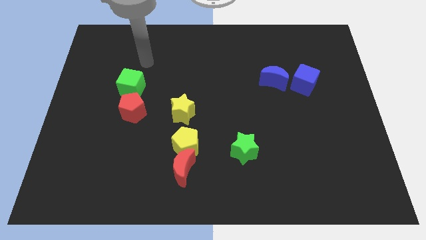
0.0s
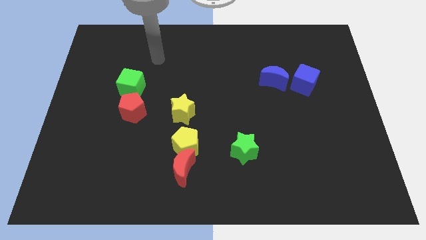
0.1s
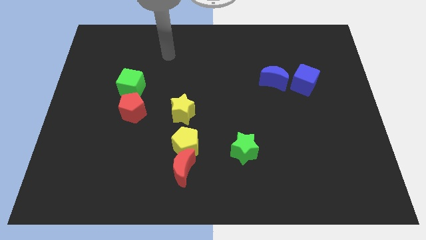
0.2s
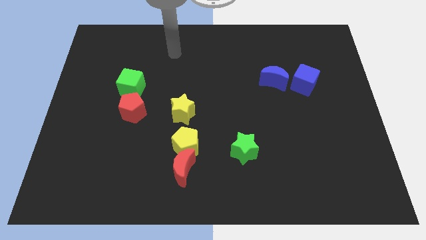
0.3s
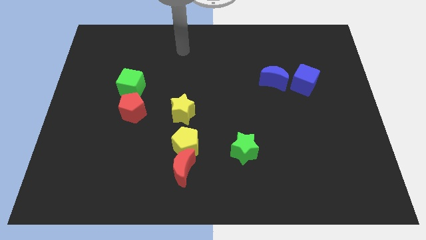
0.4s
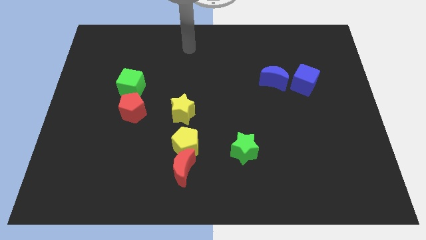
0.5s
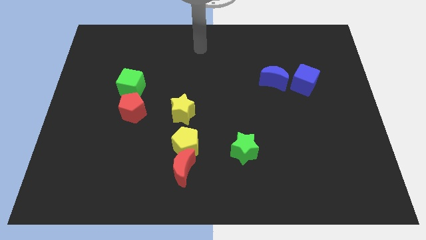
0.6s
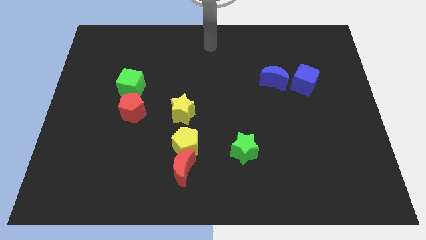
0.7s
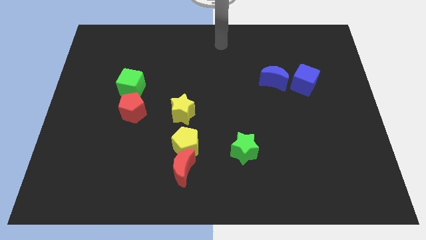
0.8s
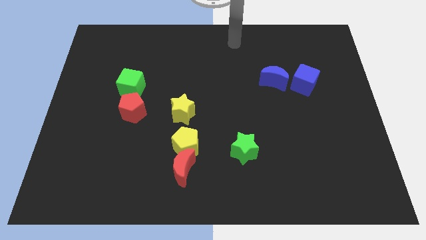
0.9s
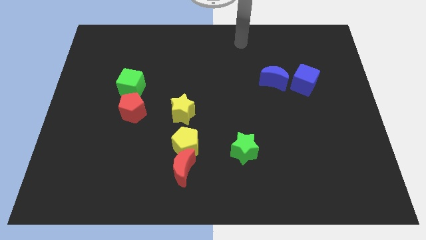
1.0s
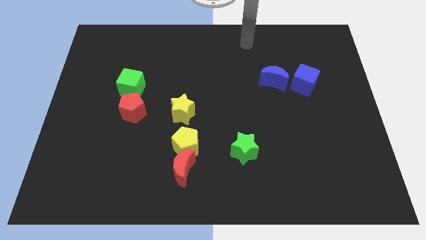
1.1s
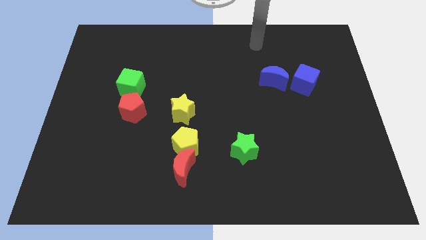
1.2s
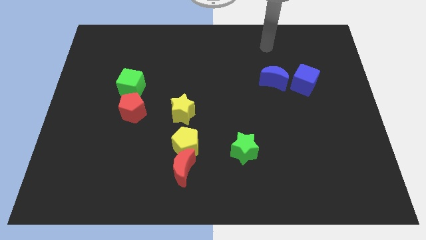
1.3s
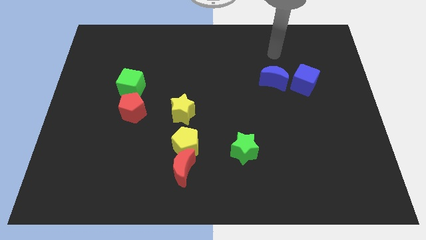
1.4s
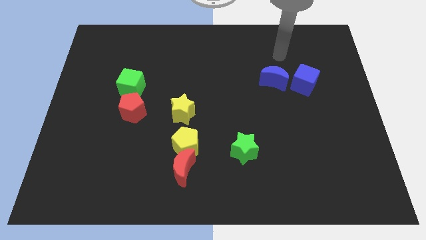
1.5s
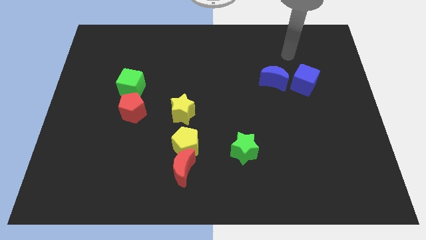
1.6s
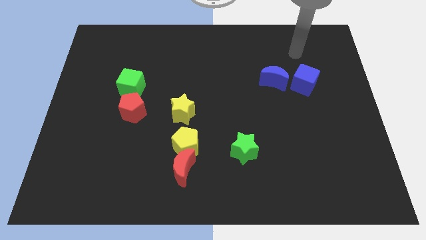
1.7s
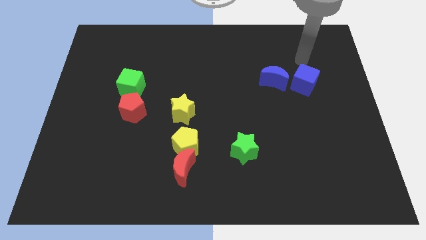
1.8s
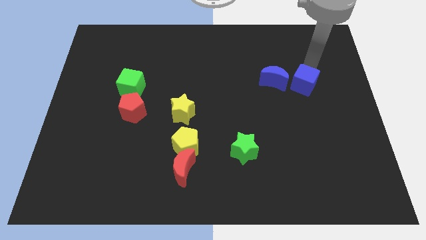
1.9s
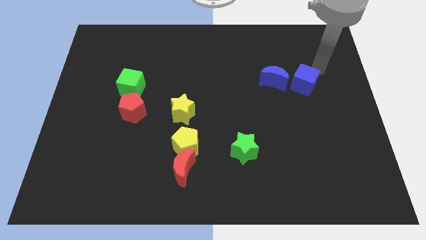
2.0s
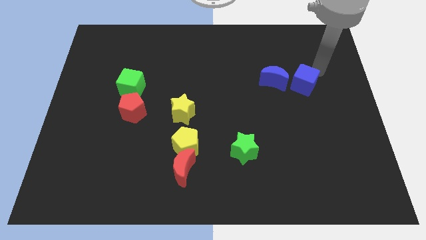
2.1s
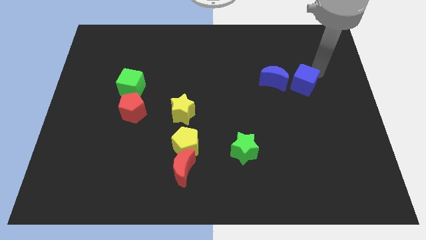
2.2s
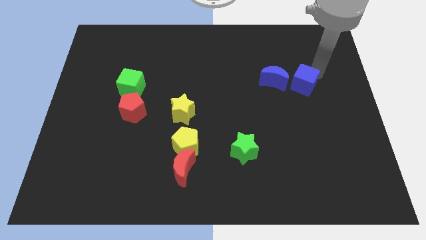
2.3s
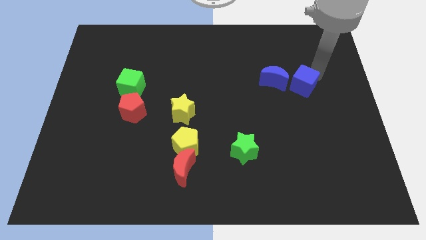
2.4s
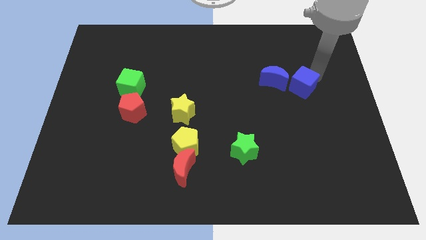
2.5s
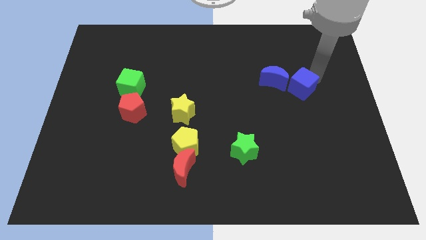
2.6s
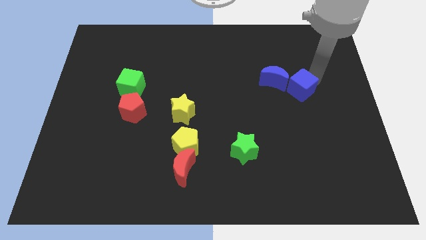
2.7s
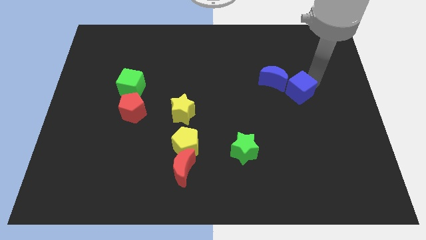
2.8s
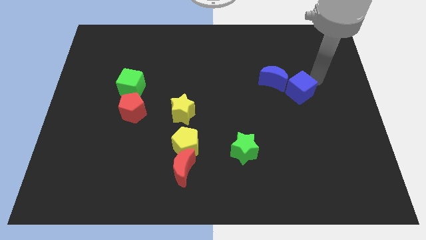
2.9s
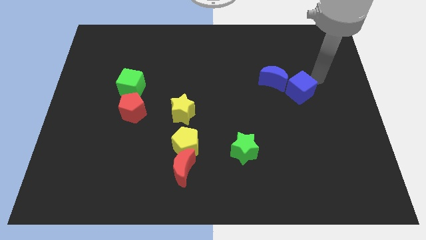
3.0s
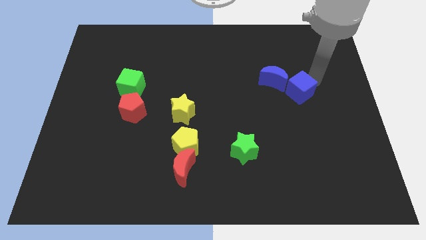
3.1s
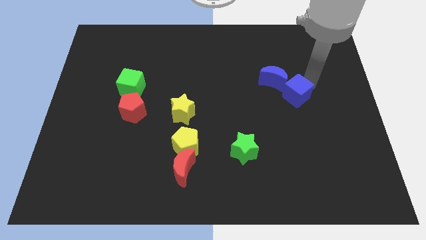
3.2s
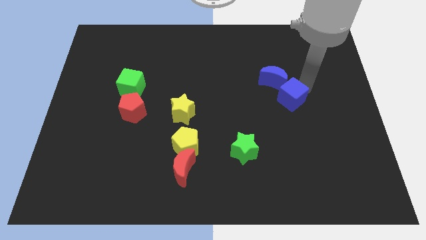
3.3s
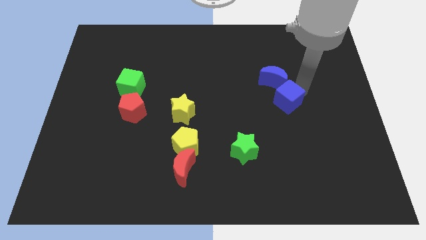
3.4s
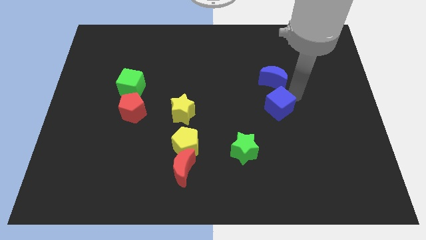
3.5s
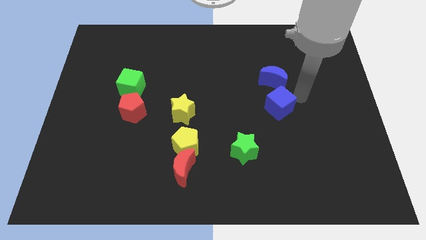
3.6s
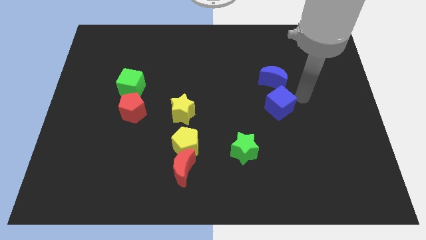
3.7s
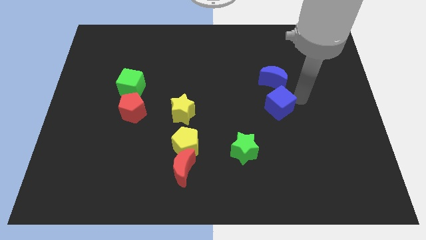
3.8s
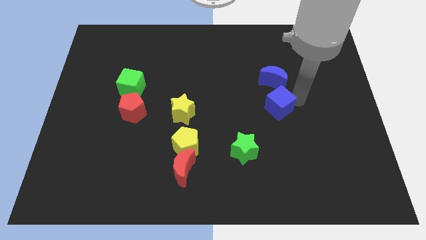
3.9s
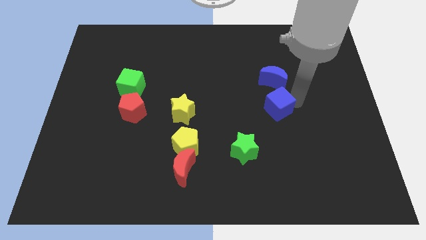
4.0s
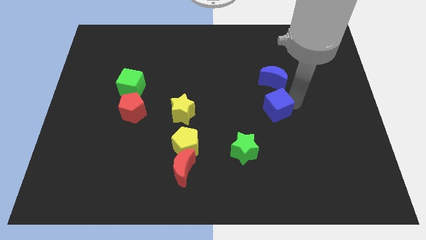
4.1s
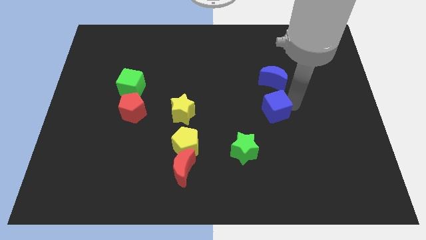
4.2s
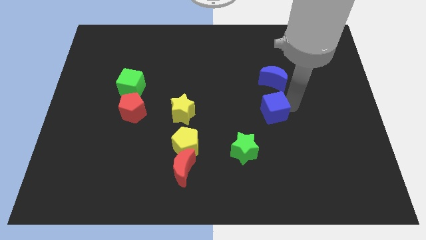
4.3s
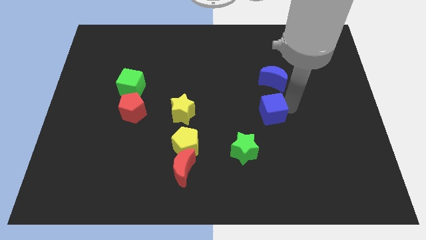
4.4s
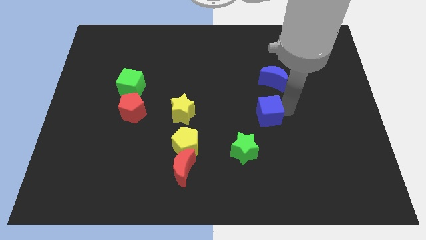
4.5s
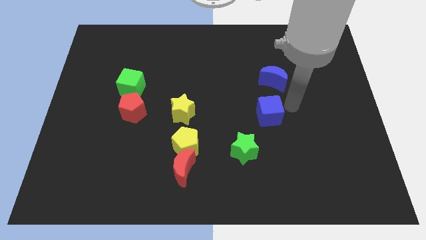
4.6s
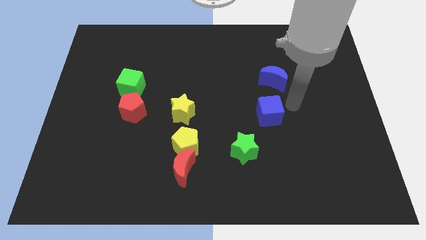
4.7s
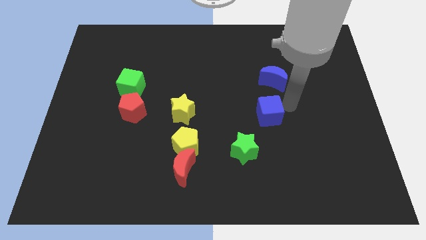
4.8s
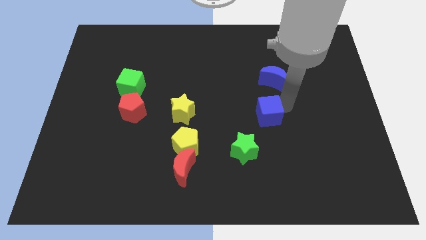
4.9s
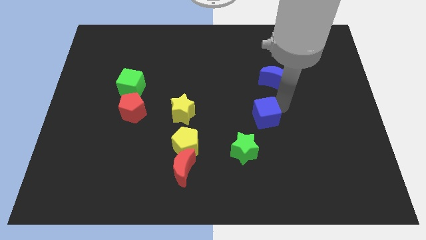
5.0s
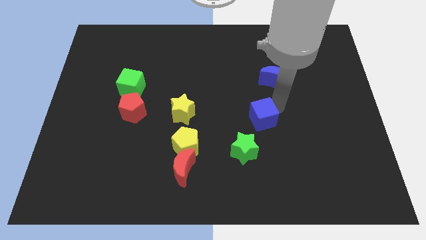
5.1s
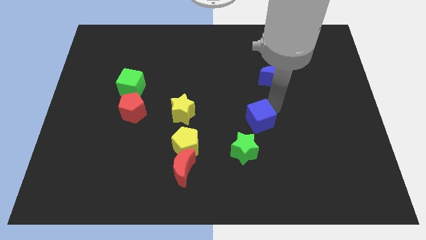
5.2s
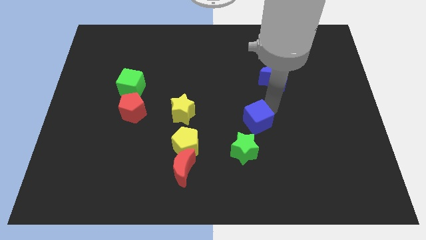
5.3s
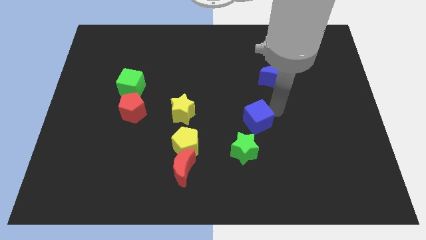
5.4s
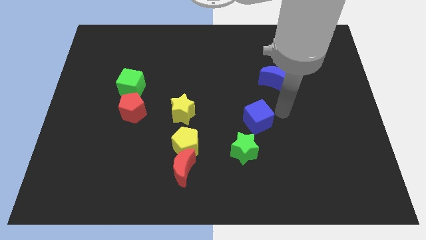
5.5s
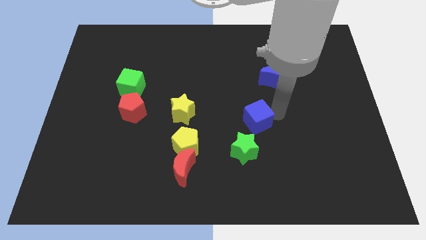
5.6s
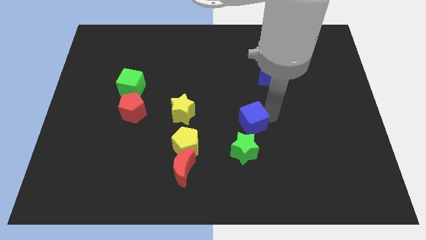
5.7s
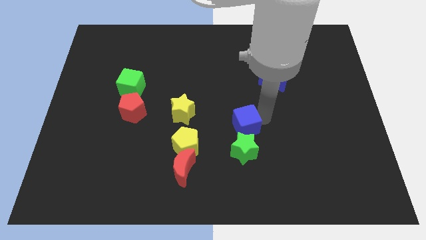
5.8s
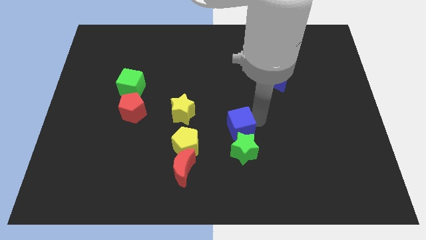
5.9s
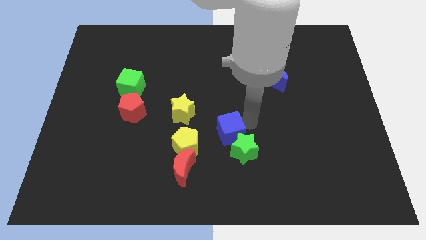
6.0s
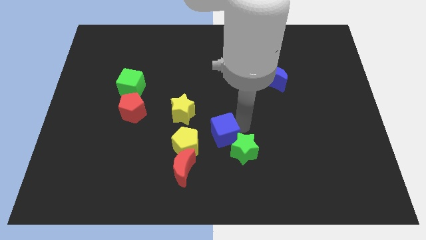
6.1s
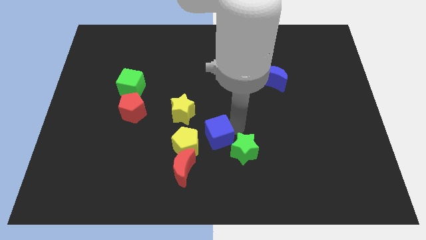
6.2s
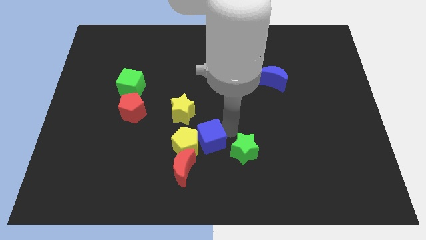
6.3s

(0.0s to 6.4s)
put the blue cube close to the yellow pentagon
